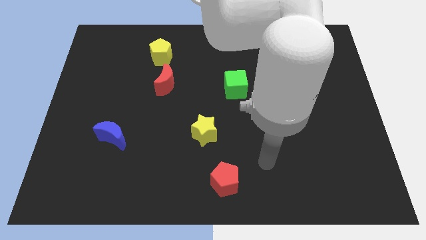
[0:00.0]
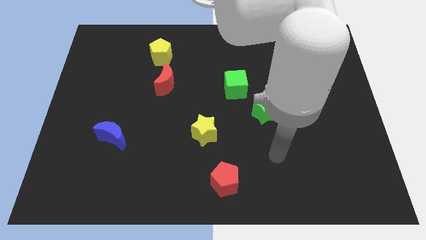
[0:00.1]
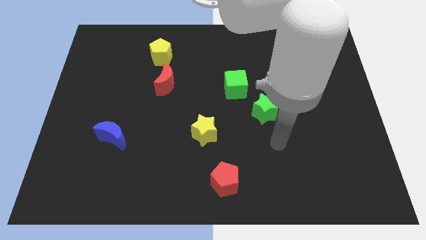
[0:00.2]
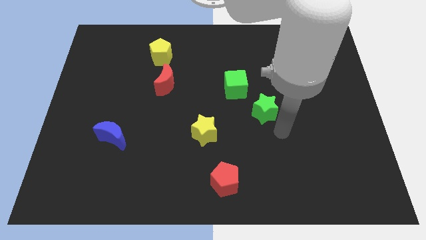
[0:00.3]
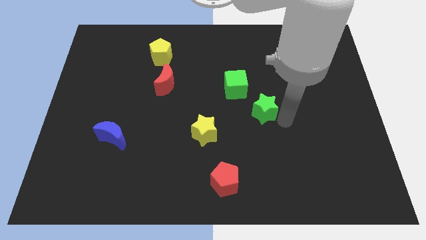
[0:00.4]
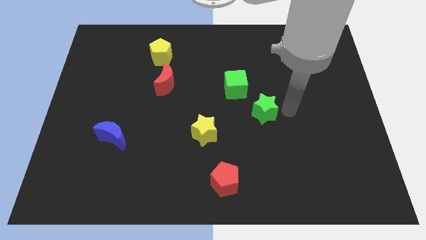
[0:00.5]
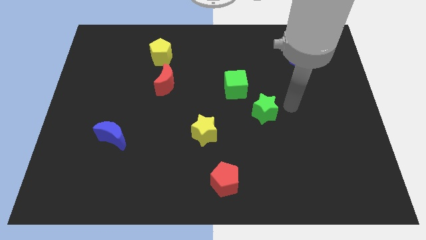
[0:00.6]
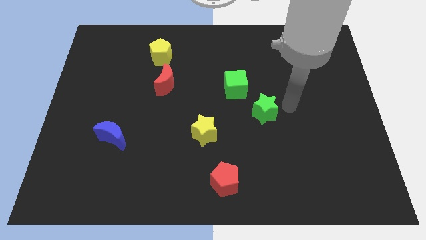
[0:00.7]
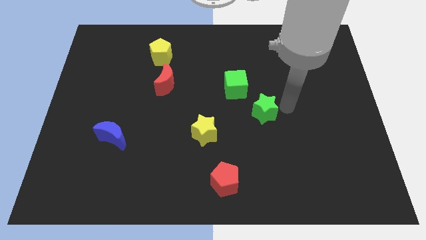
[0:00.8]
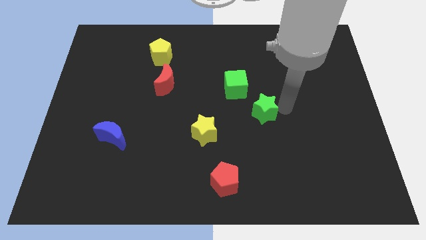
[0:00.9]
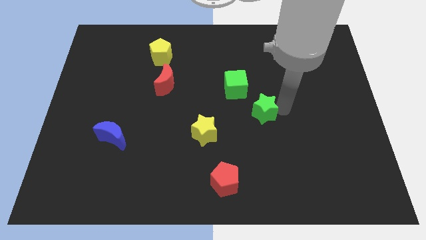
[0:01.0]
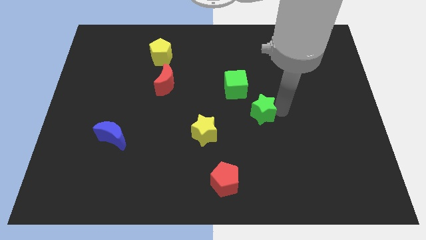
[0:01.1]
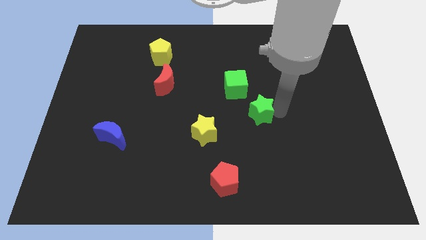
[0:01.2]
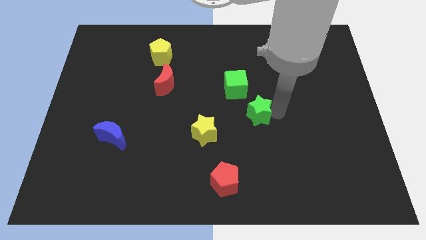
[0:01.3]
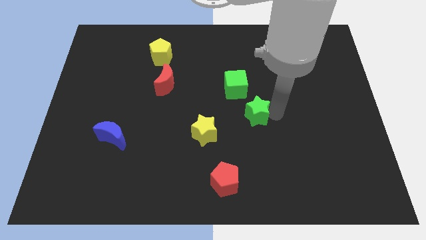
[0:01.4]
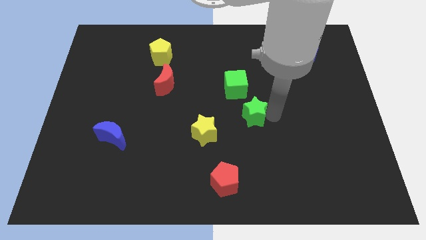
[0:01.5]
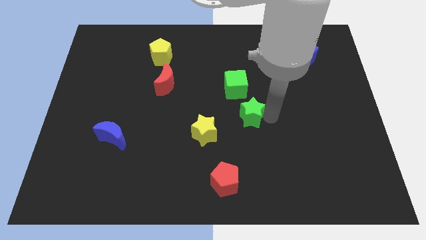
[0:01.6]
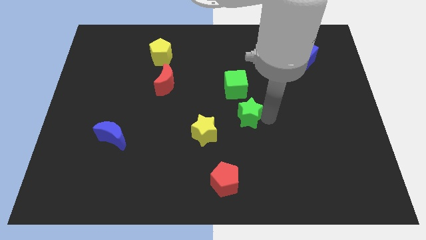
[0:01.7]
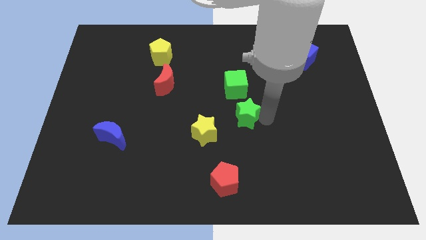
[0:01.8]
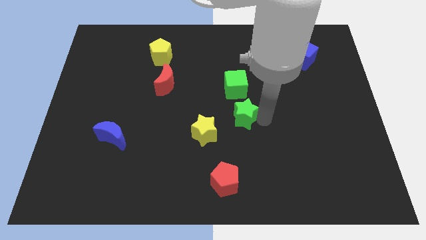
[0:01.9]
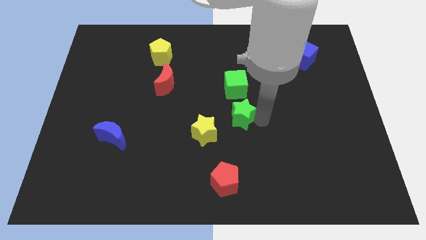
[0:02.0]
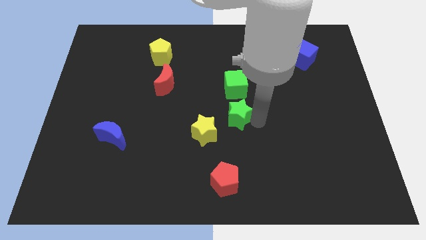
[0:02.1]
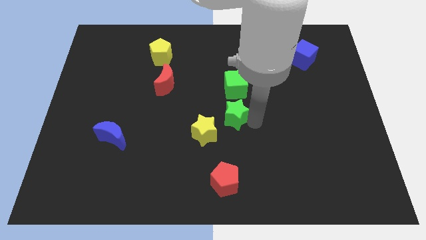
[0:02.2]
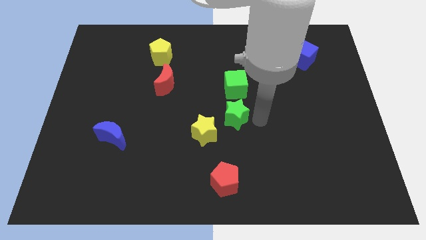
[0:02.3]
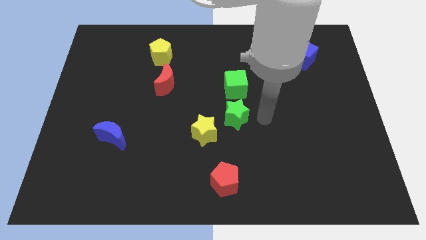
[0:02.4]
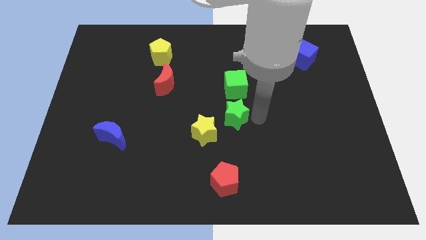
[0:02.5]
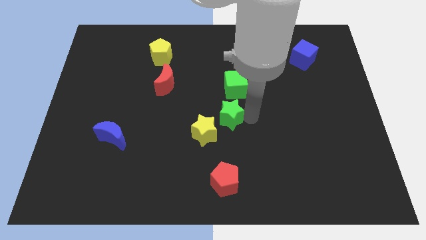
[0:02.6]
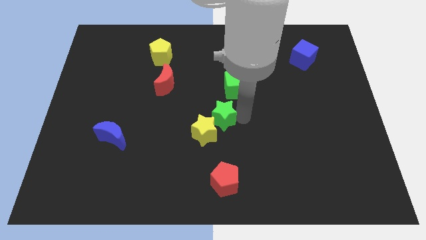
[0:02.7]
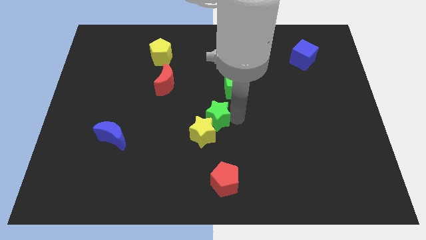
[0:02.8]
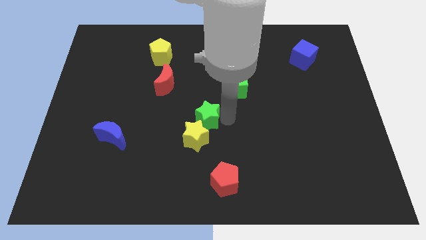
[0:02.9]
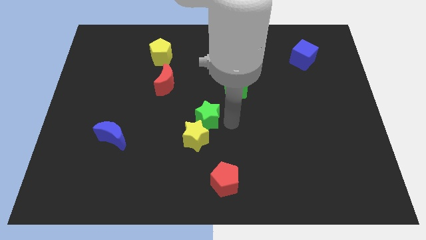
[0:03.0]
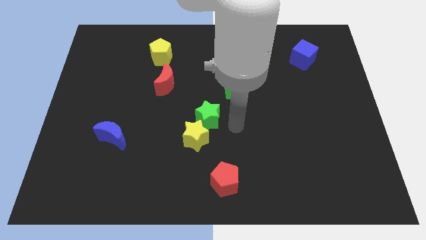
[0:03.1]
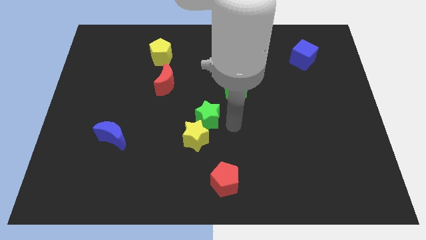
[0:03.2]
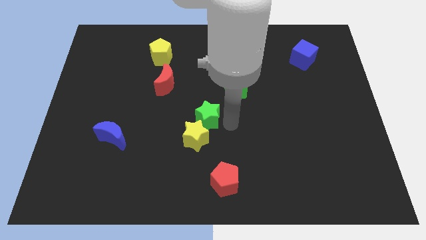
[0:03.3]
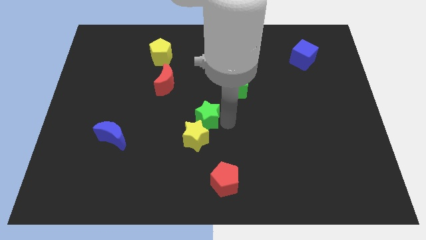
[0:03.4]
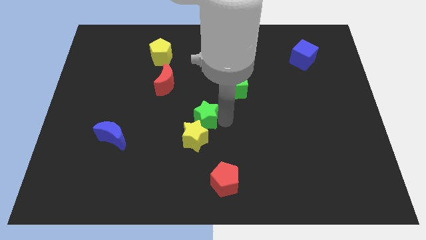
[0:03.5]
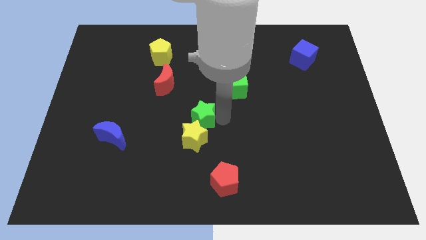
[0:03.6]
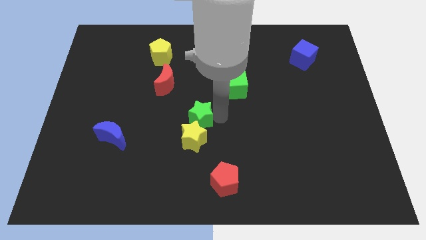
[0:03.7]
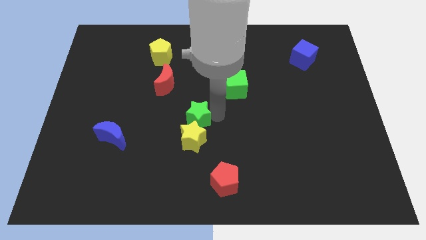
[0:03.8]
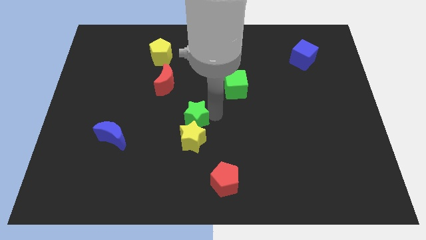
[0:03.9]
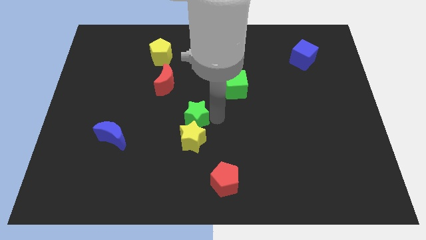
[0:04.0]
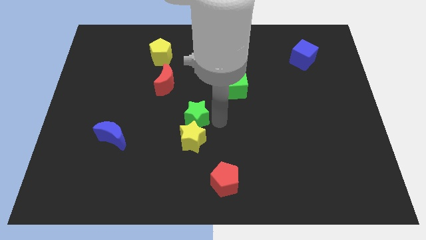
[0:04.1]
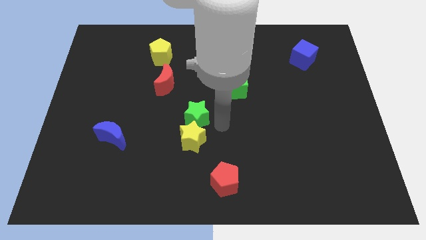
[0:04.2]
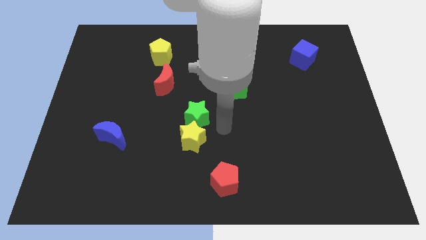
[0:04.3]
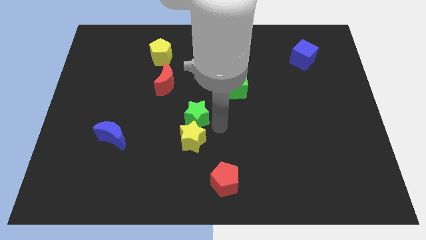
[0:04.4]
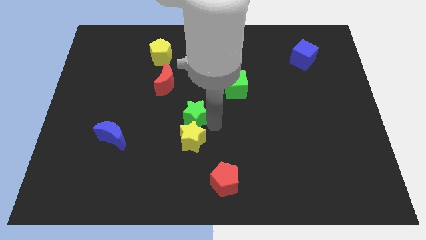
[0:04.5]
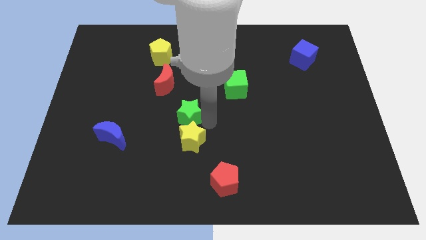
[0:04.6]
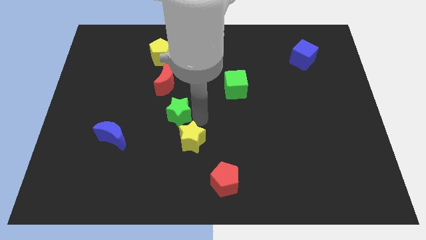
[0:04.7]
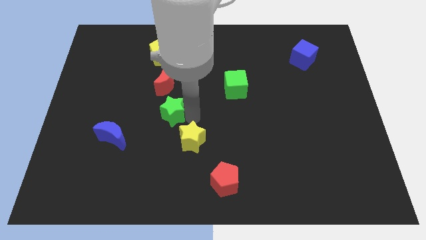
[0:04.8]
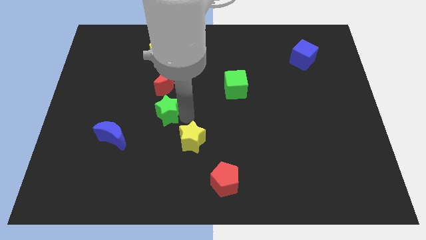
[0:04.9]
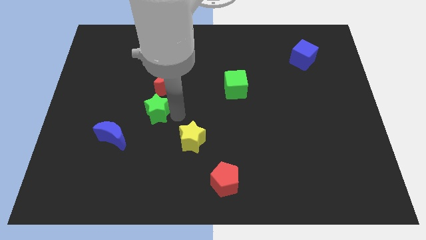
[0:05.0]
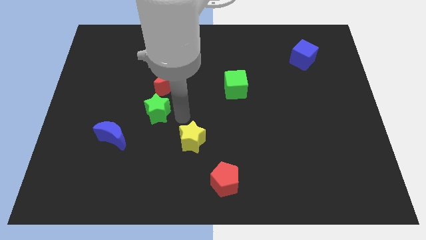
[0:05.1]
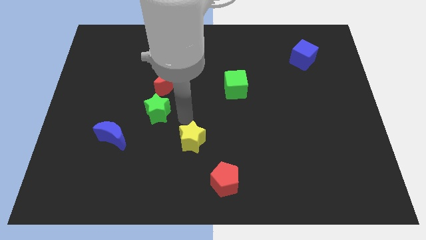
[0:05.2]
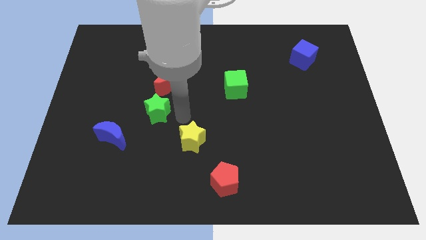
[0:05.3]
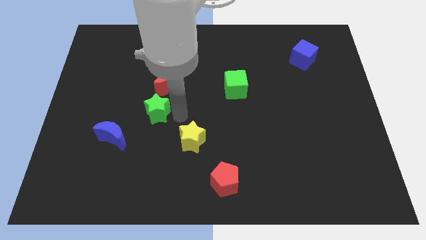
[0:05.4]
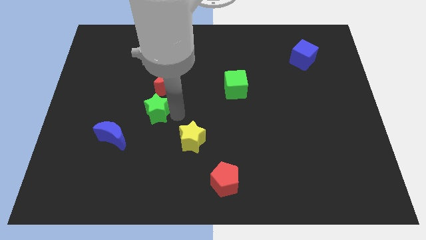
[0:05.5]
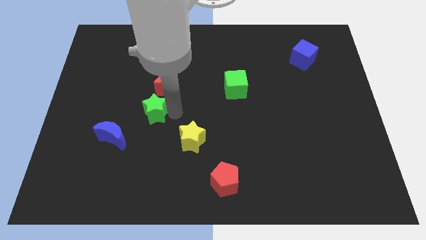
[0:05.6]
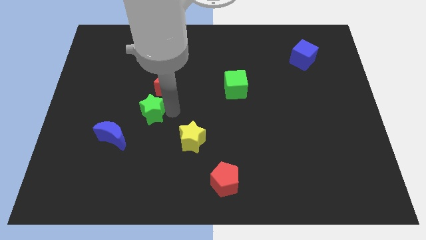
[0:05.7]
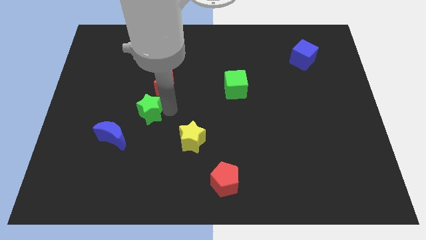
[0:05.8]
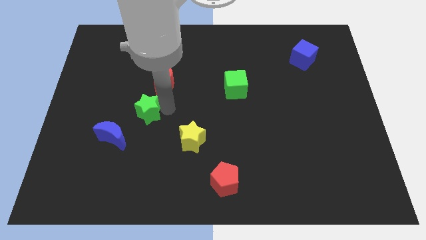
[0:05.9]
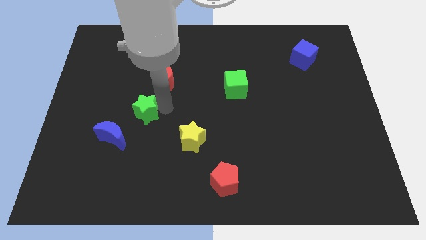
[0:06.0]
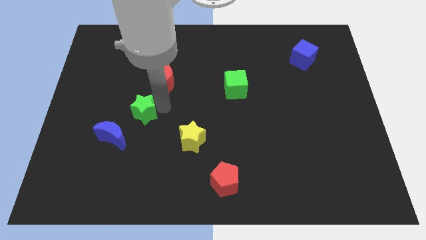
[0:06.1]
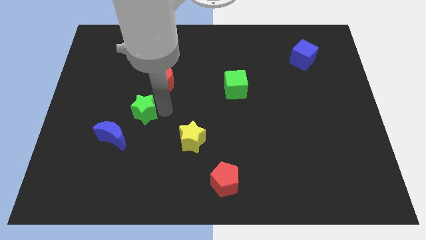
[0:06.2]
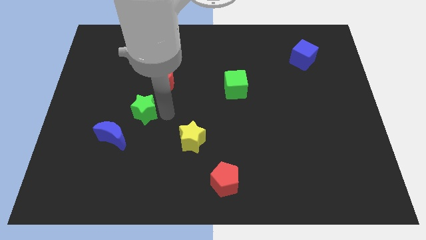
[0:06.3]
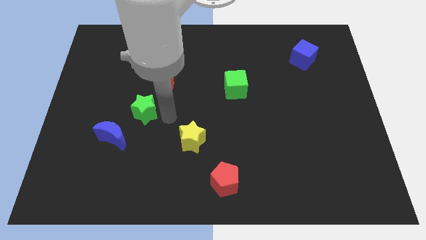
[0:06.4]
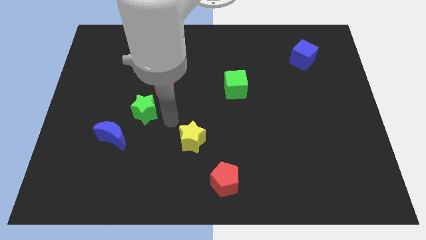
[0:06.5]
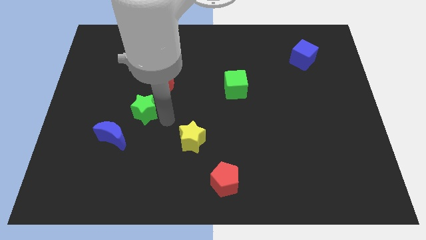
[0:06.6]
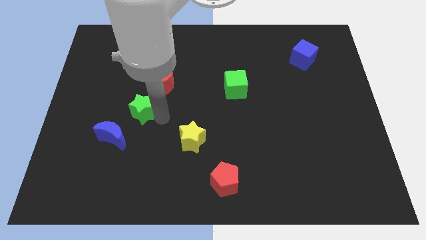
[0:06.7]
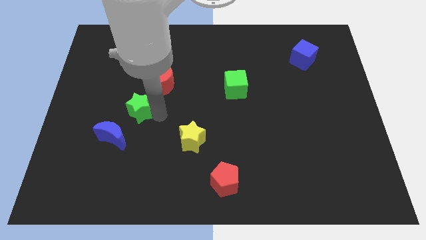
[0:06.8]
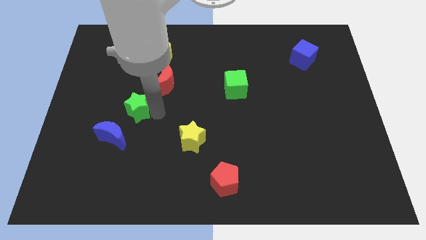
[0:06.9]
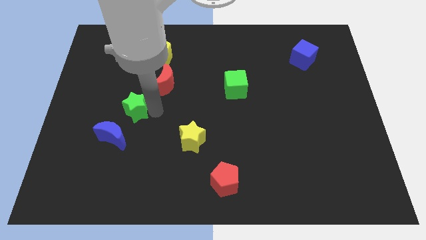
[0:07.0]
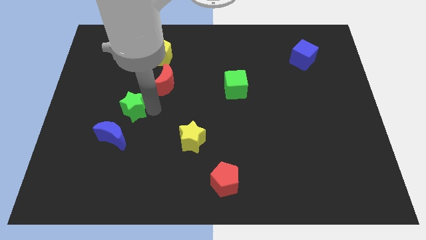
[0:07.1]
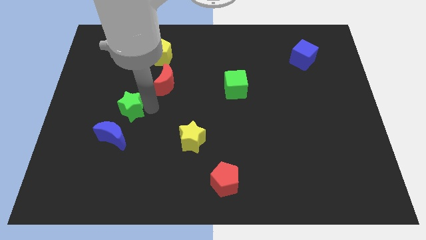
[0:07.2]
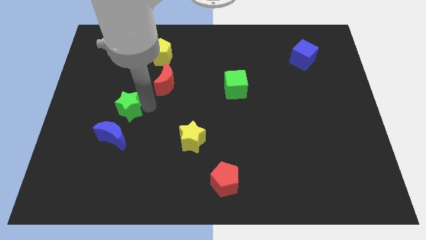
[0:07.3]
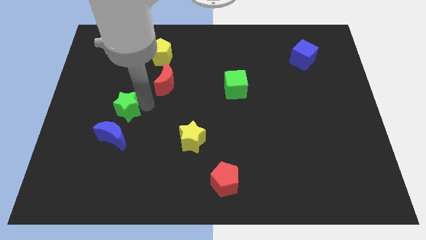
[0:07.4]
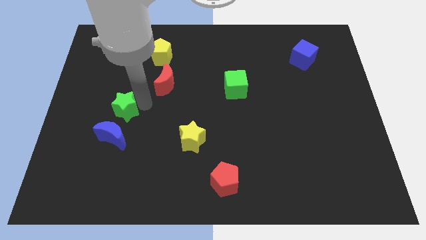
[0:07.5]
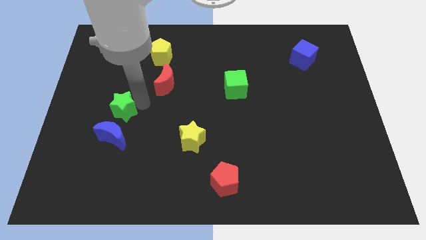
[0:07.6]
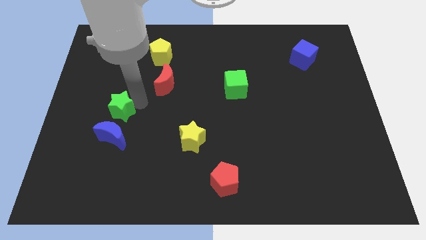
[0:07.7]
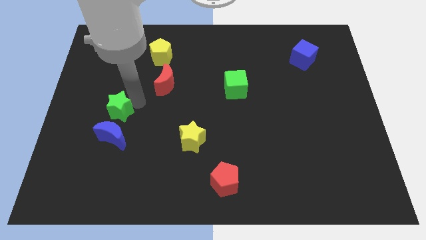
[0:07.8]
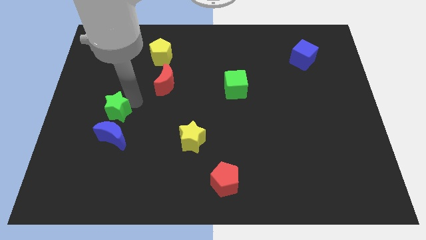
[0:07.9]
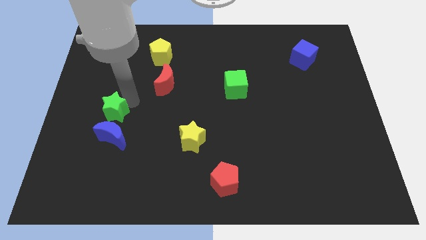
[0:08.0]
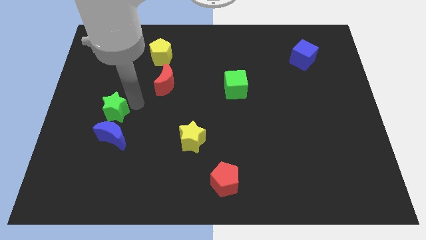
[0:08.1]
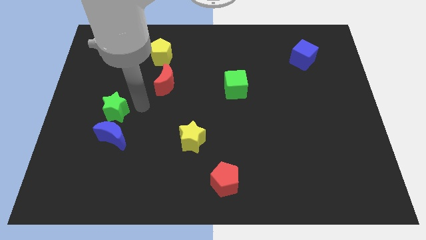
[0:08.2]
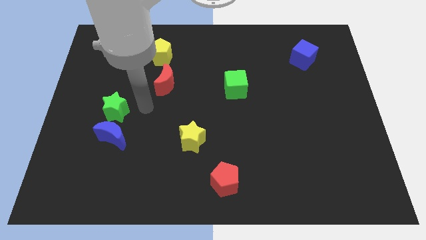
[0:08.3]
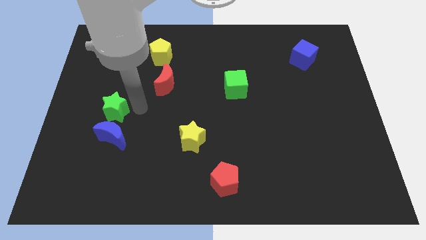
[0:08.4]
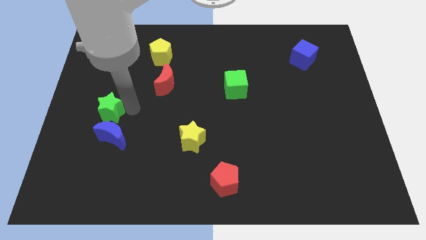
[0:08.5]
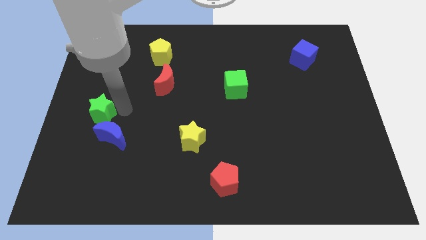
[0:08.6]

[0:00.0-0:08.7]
put the green star to the left side
